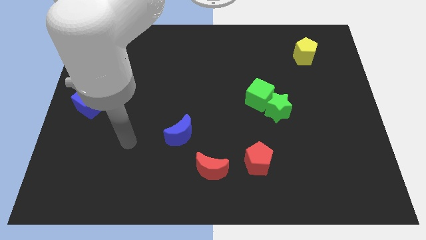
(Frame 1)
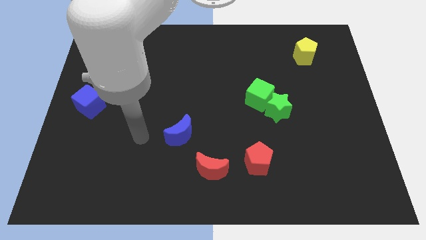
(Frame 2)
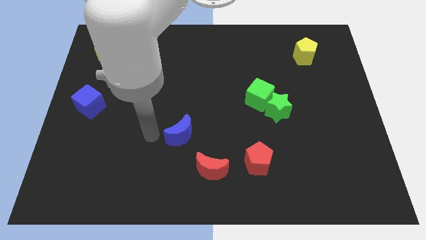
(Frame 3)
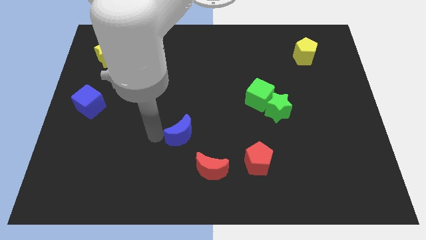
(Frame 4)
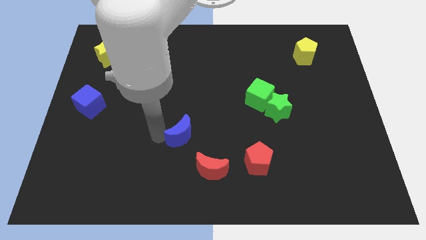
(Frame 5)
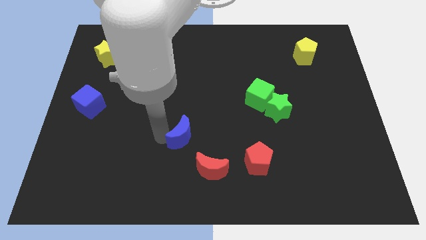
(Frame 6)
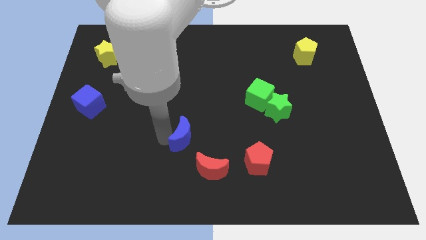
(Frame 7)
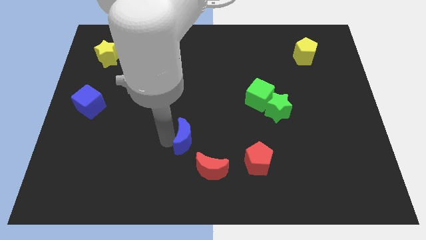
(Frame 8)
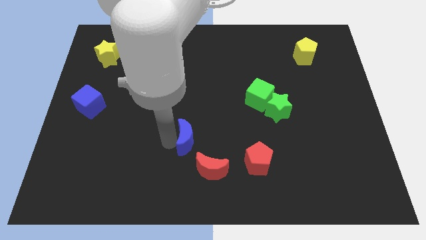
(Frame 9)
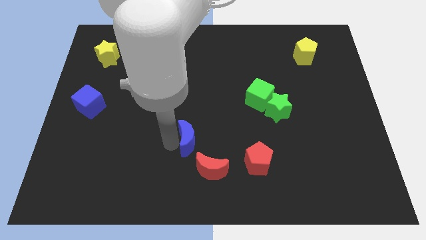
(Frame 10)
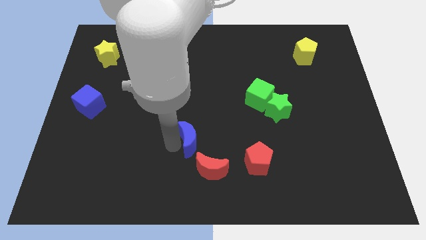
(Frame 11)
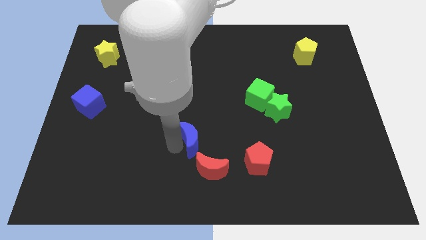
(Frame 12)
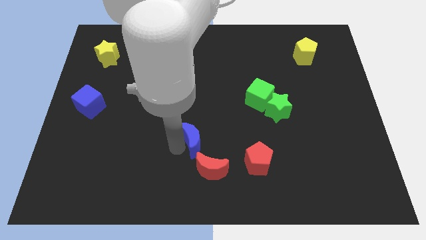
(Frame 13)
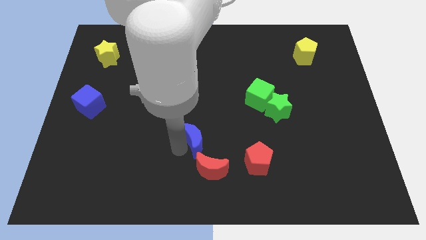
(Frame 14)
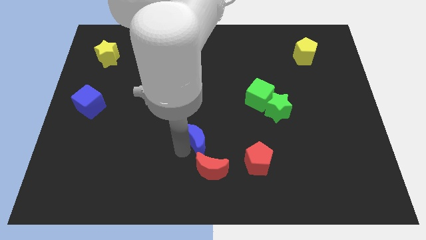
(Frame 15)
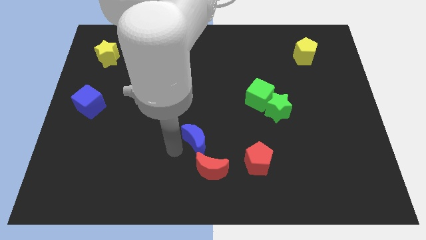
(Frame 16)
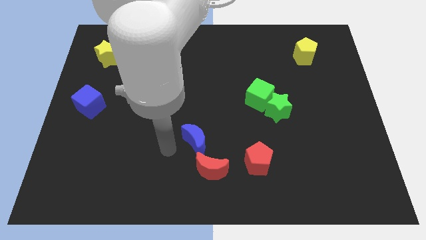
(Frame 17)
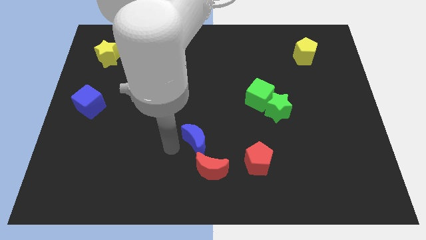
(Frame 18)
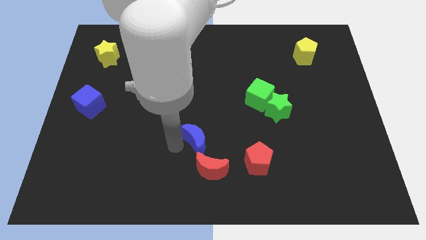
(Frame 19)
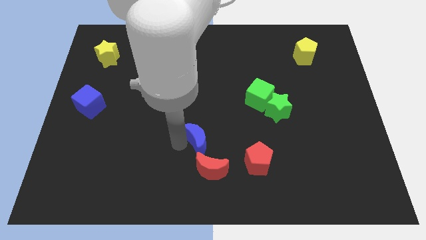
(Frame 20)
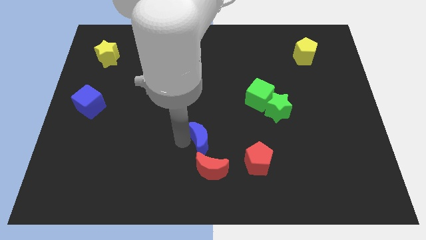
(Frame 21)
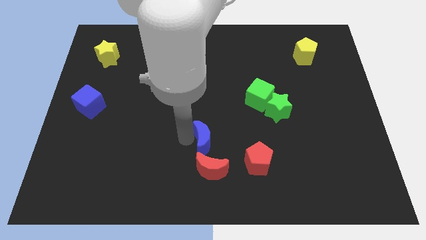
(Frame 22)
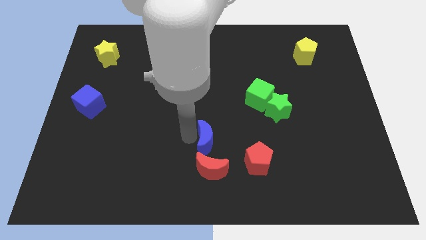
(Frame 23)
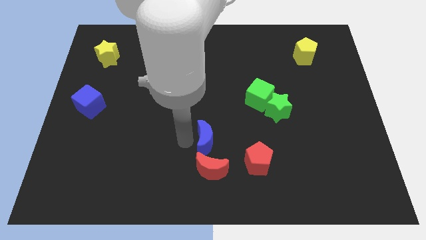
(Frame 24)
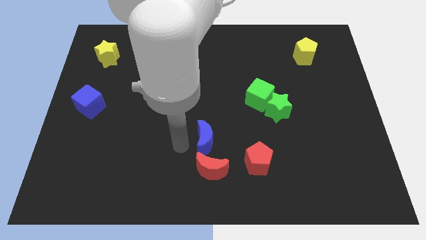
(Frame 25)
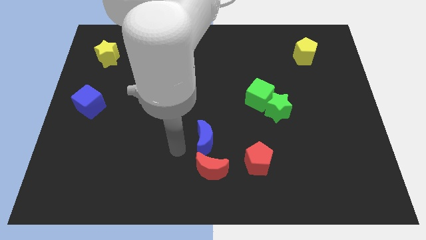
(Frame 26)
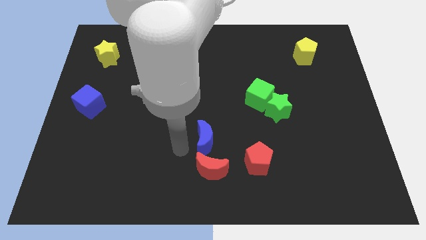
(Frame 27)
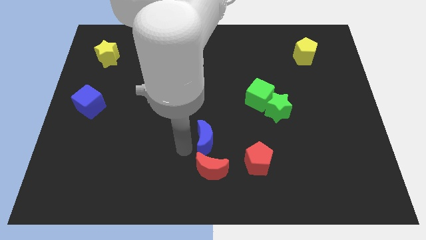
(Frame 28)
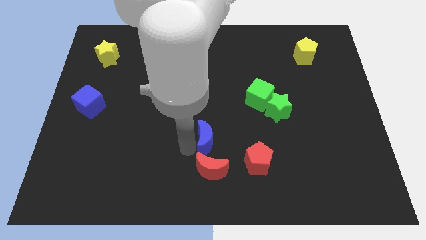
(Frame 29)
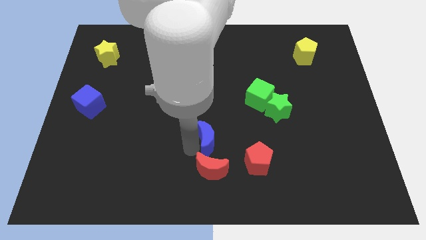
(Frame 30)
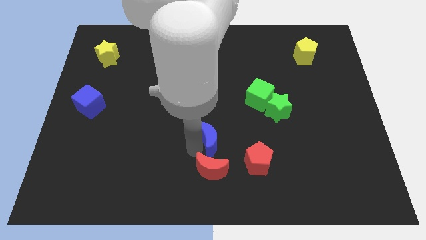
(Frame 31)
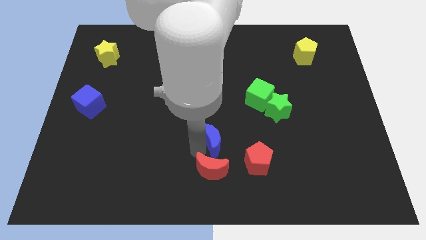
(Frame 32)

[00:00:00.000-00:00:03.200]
slide the blue moon slightly right

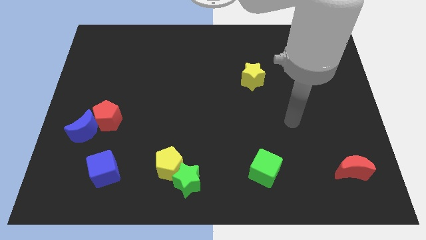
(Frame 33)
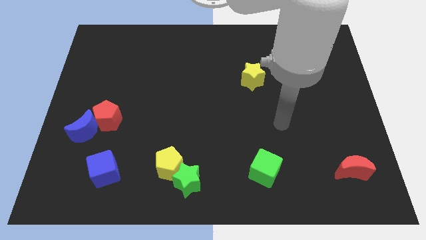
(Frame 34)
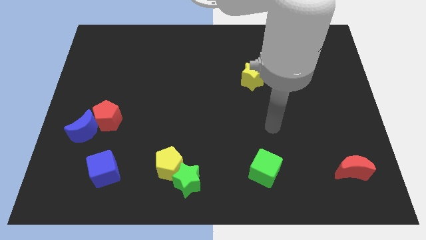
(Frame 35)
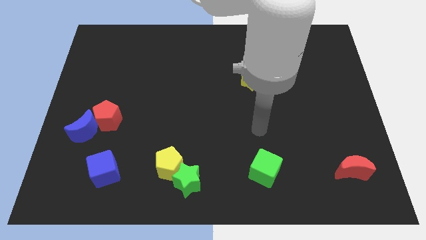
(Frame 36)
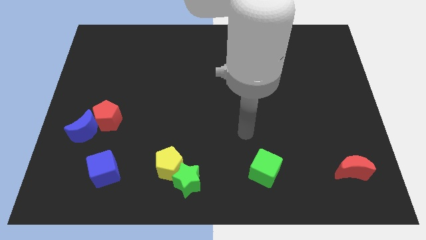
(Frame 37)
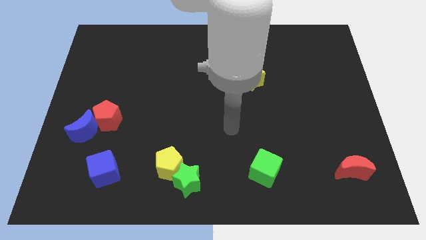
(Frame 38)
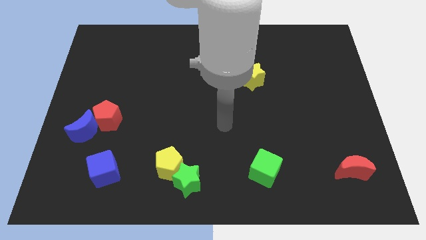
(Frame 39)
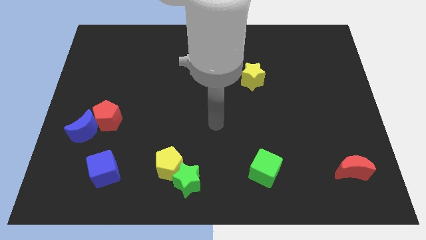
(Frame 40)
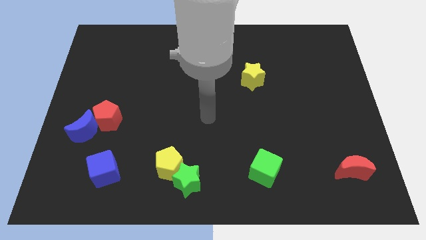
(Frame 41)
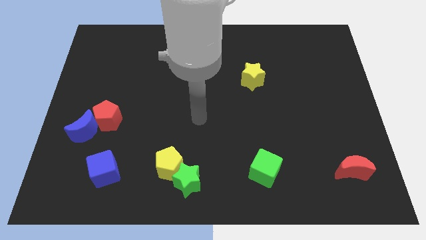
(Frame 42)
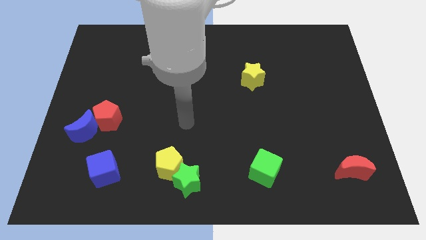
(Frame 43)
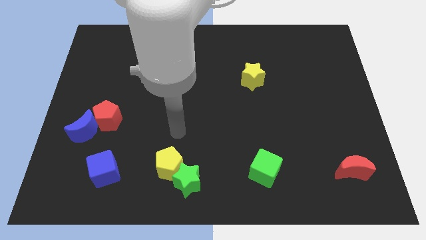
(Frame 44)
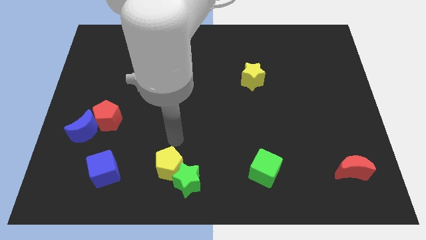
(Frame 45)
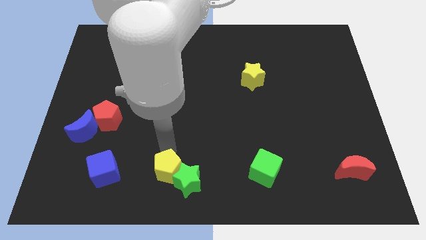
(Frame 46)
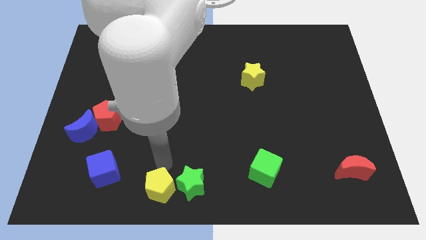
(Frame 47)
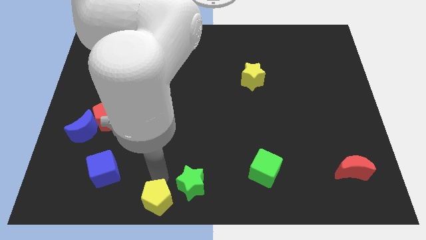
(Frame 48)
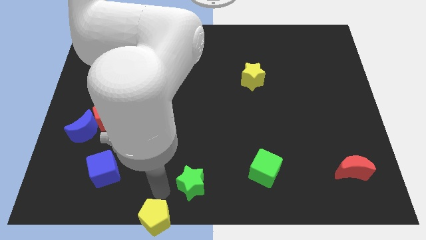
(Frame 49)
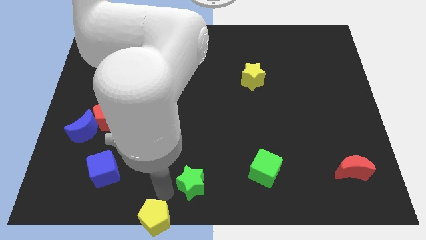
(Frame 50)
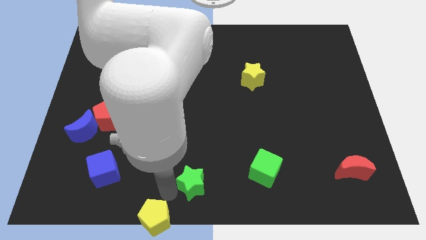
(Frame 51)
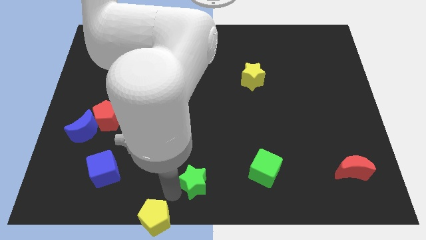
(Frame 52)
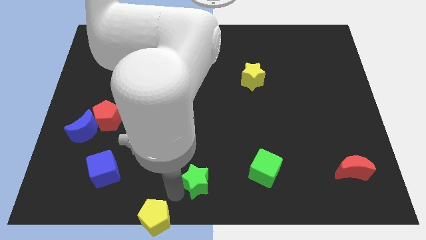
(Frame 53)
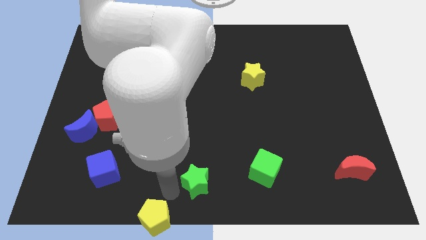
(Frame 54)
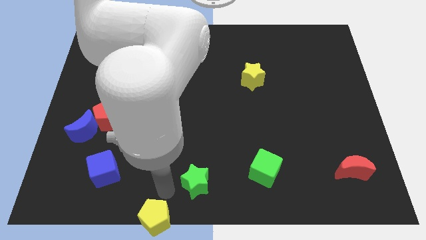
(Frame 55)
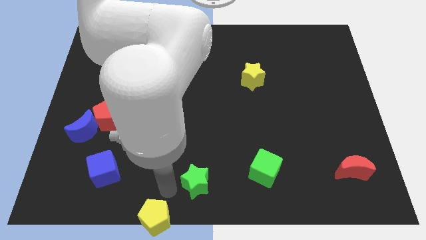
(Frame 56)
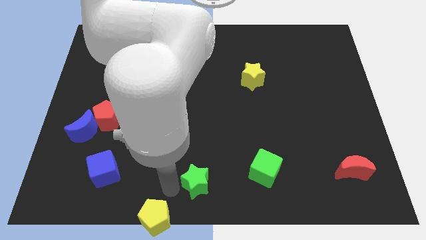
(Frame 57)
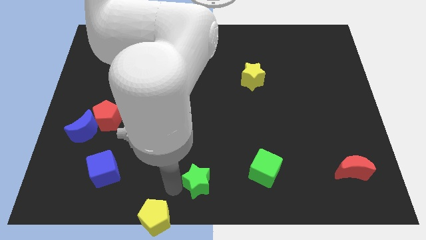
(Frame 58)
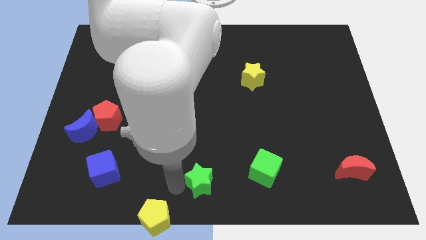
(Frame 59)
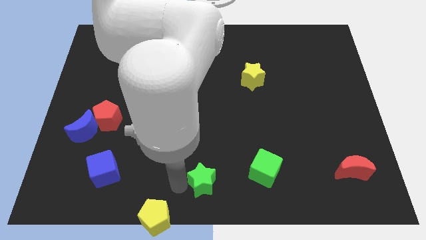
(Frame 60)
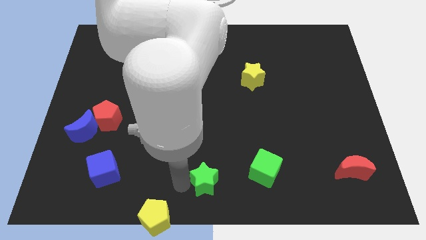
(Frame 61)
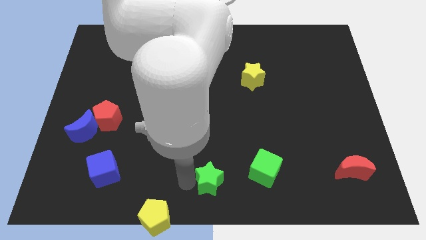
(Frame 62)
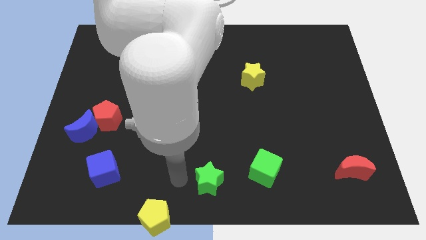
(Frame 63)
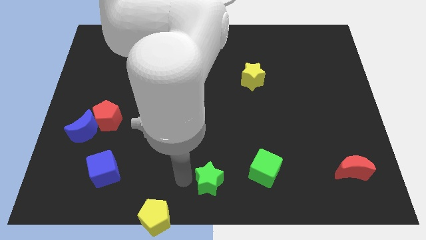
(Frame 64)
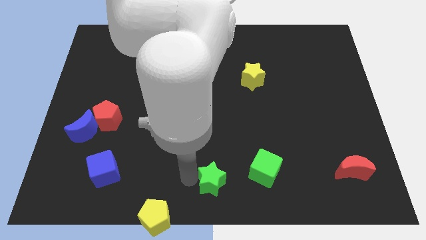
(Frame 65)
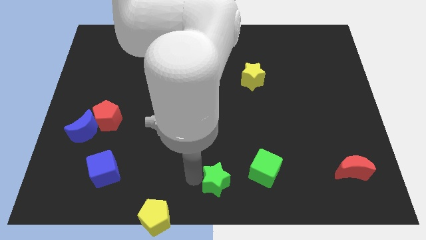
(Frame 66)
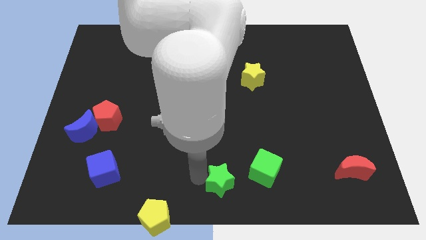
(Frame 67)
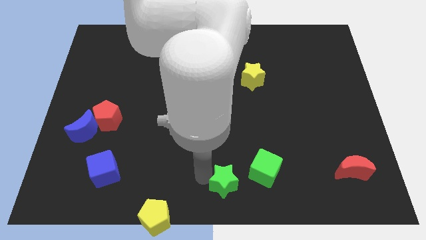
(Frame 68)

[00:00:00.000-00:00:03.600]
slightly slide the green star to the right

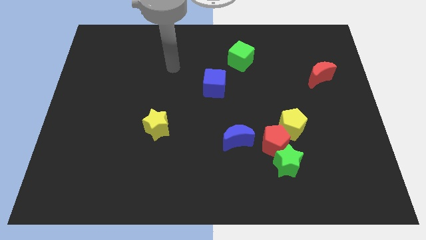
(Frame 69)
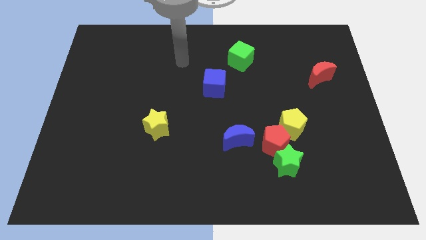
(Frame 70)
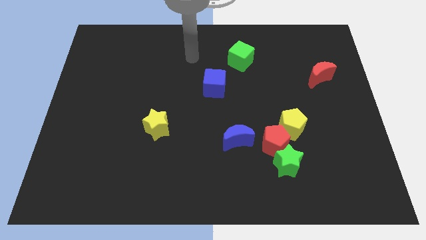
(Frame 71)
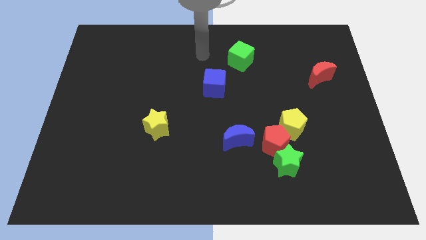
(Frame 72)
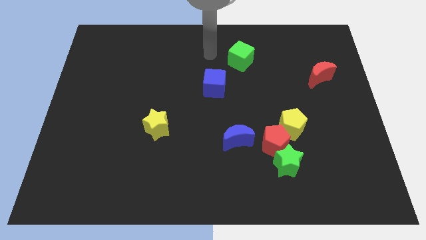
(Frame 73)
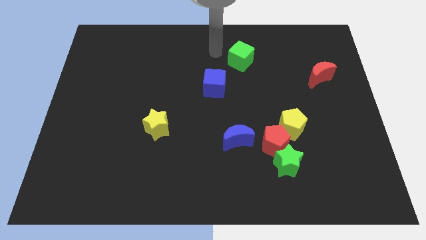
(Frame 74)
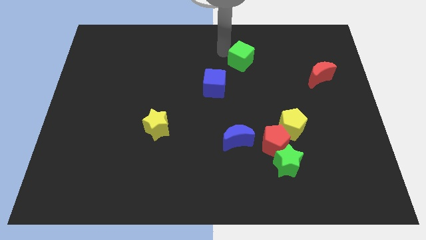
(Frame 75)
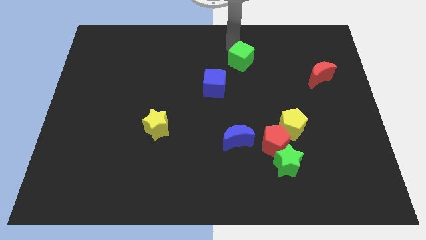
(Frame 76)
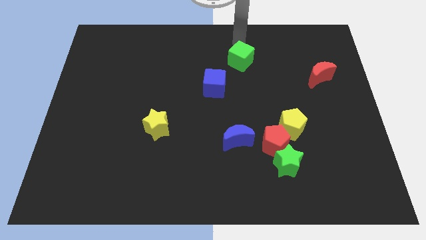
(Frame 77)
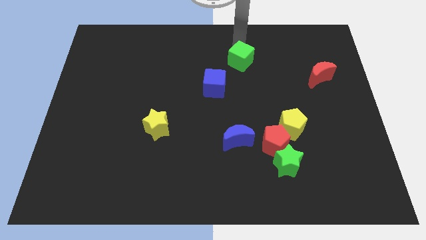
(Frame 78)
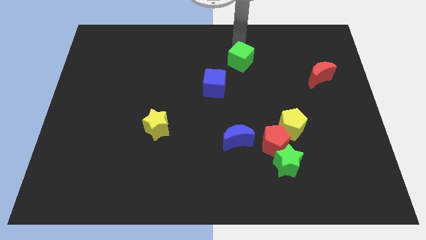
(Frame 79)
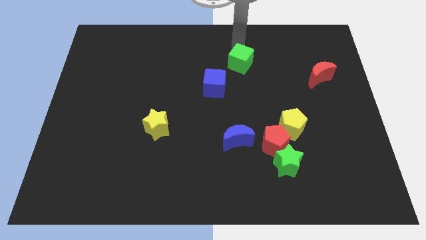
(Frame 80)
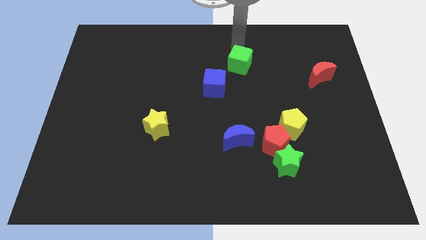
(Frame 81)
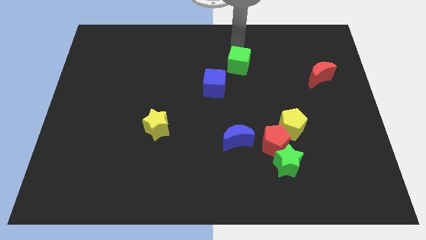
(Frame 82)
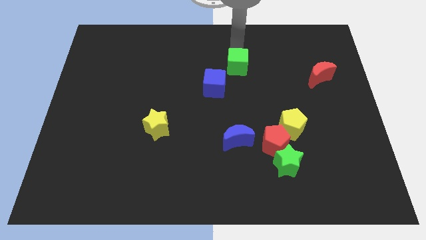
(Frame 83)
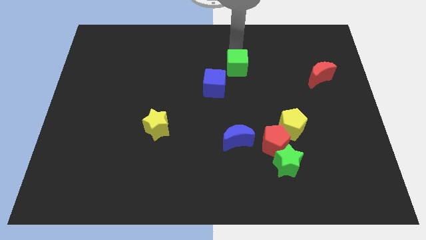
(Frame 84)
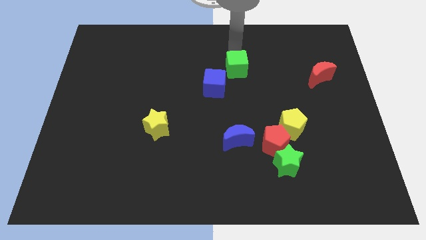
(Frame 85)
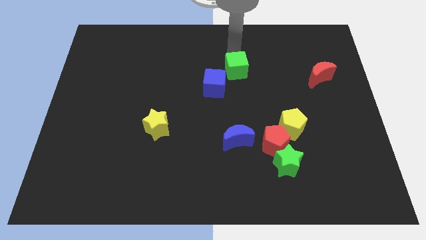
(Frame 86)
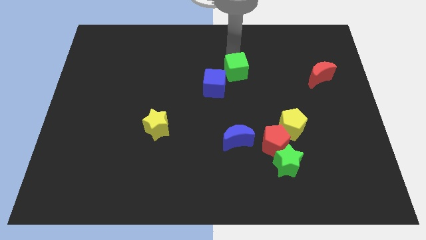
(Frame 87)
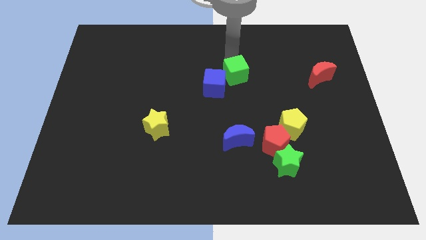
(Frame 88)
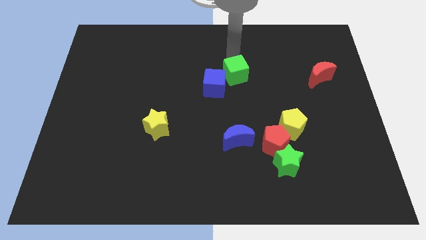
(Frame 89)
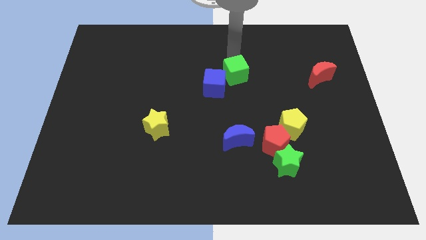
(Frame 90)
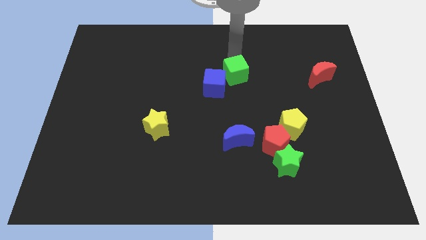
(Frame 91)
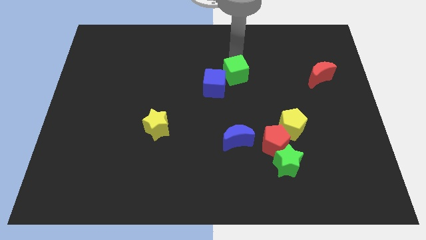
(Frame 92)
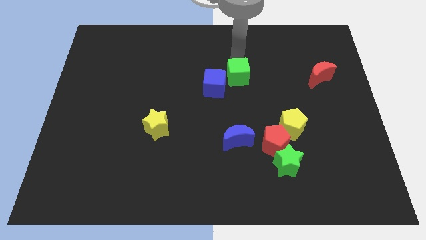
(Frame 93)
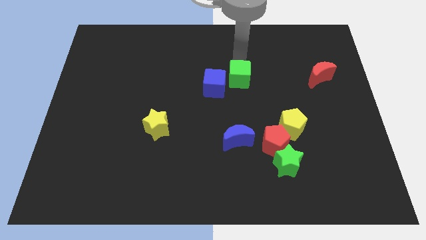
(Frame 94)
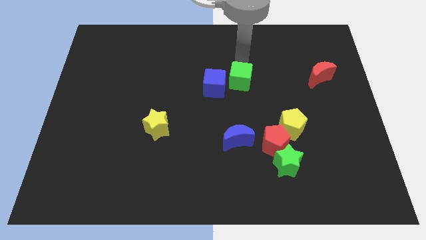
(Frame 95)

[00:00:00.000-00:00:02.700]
push the green cube a bit down
